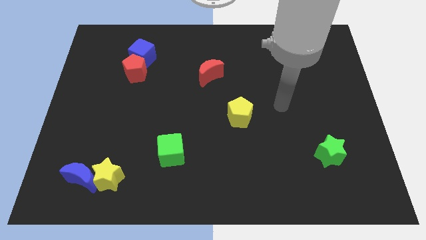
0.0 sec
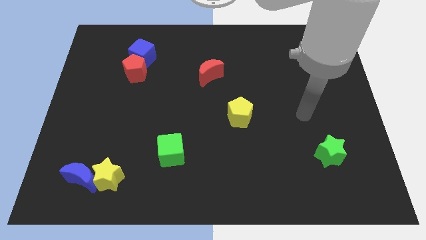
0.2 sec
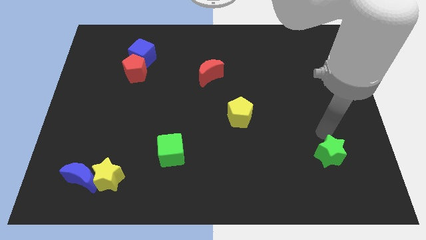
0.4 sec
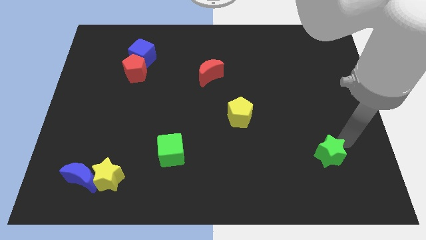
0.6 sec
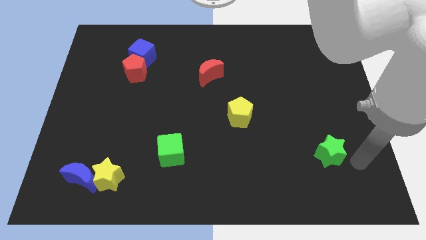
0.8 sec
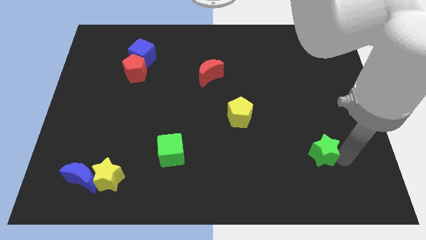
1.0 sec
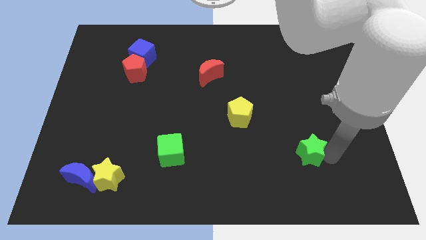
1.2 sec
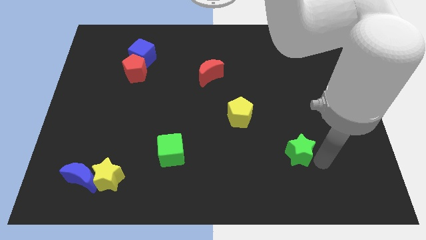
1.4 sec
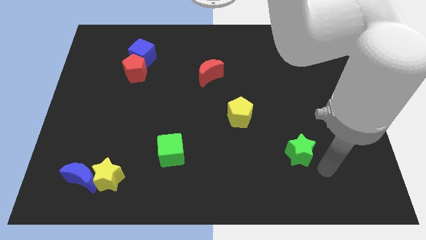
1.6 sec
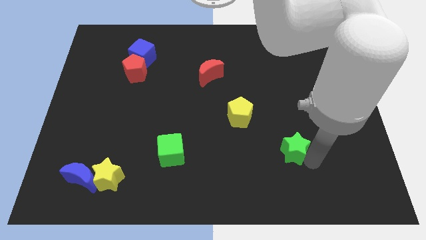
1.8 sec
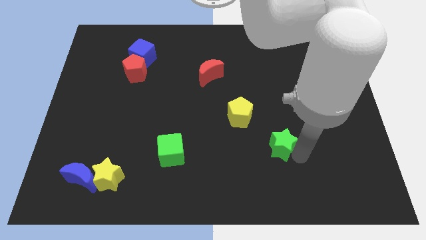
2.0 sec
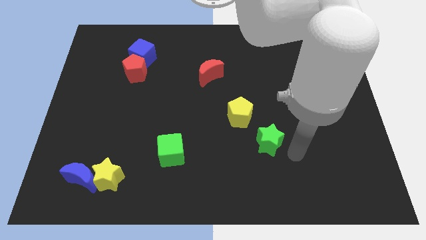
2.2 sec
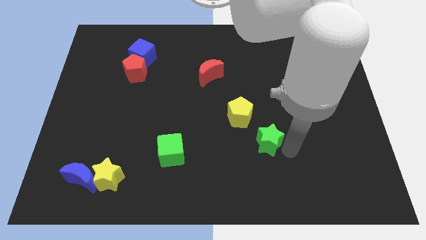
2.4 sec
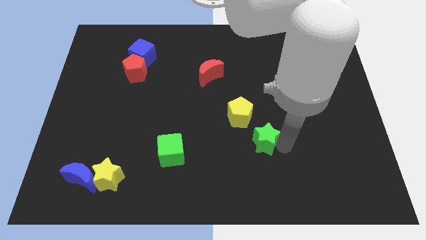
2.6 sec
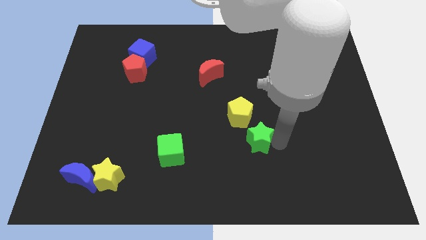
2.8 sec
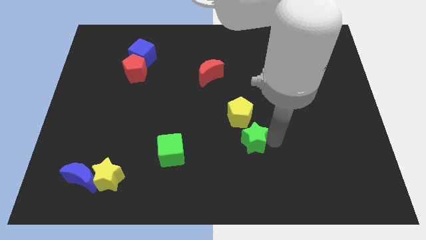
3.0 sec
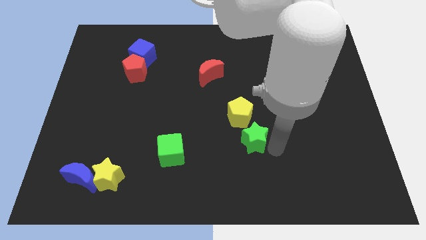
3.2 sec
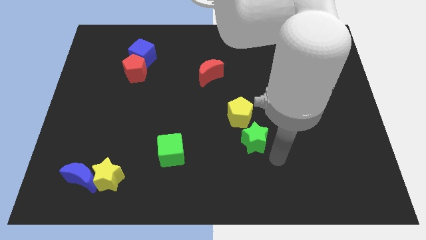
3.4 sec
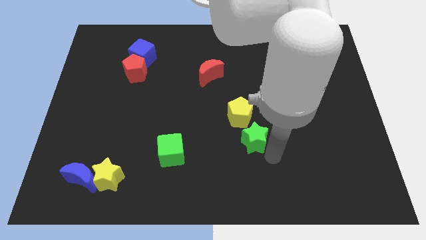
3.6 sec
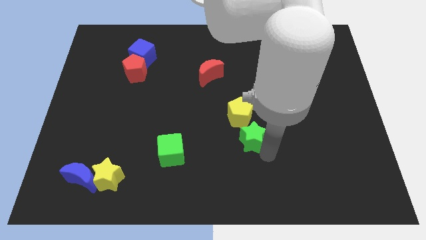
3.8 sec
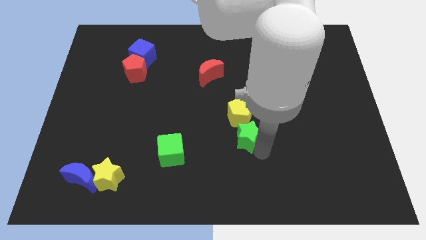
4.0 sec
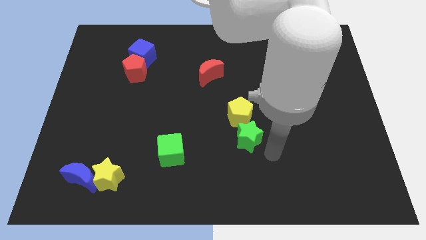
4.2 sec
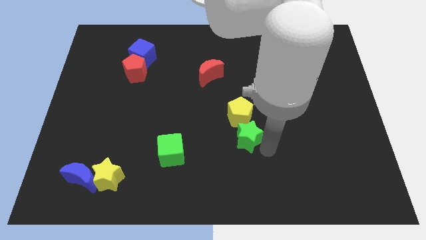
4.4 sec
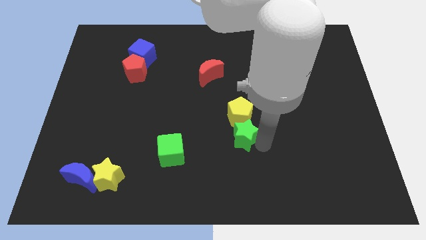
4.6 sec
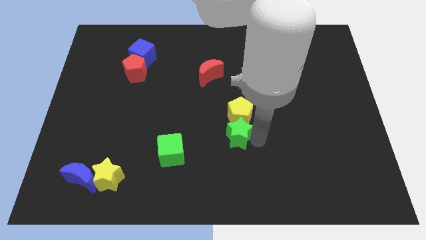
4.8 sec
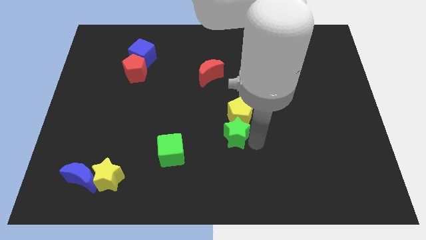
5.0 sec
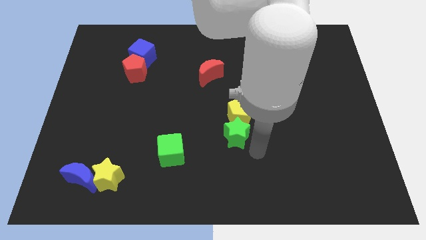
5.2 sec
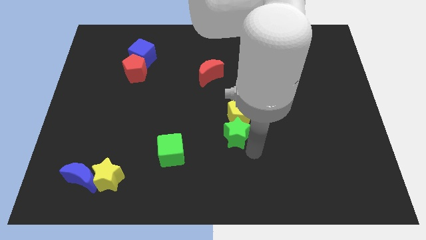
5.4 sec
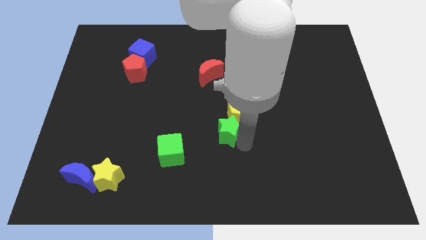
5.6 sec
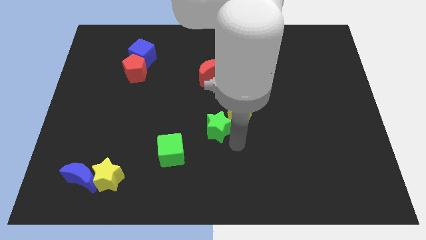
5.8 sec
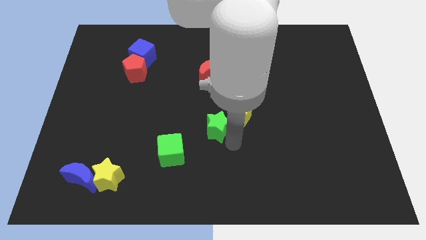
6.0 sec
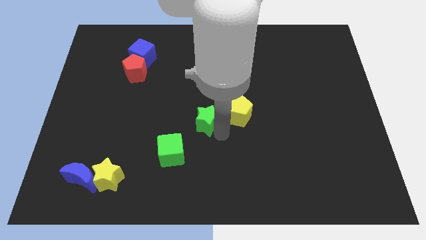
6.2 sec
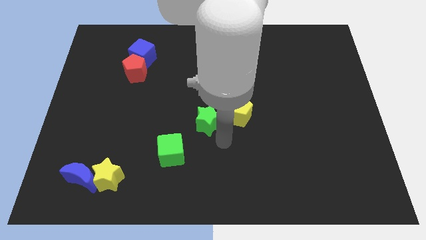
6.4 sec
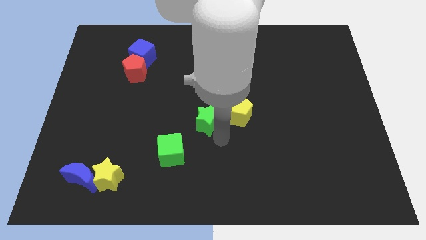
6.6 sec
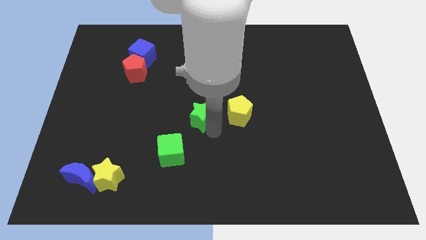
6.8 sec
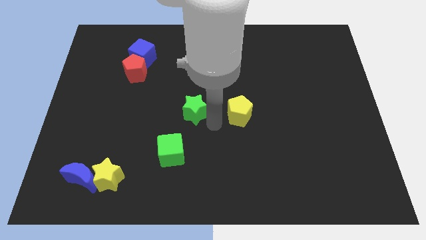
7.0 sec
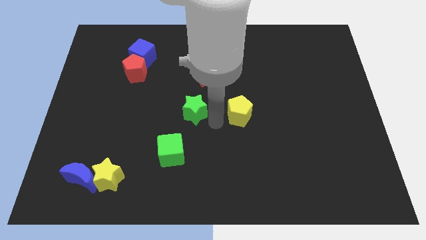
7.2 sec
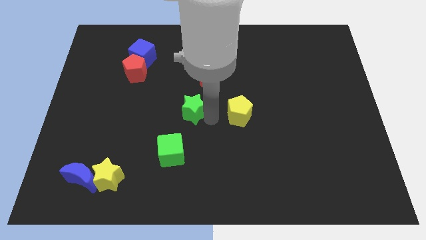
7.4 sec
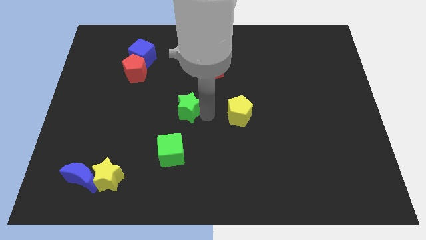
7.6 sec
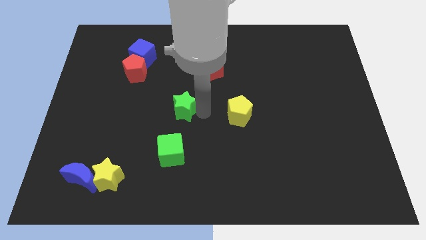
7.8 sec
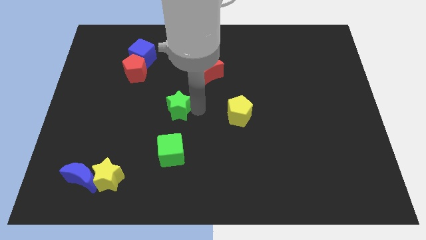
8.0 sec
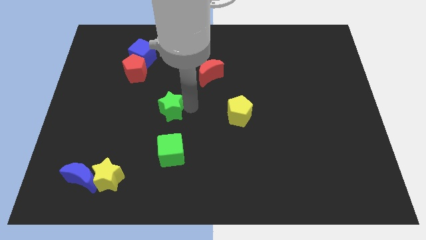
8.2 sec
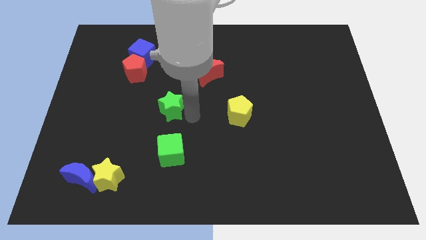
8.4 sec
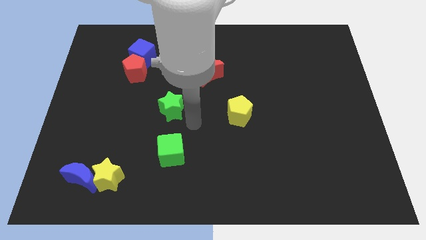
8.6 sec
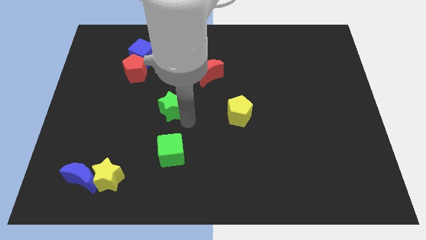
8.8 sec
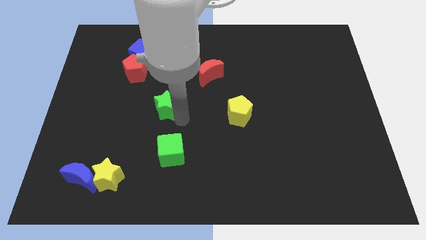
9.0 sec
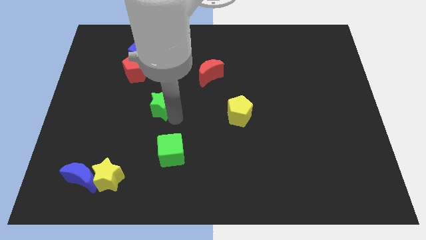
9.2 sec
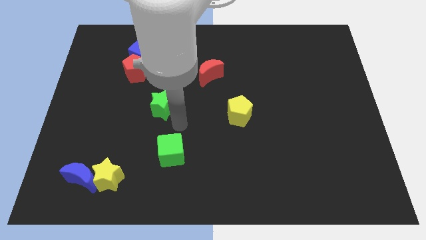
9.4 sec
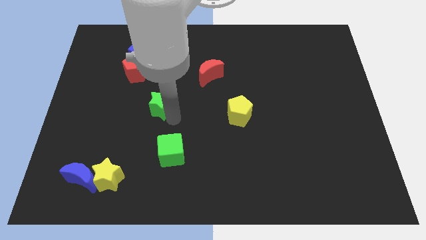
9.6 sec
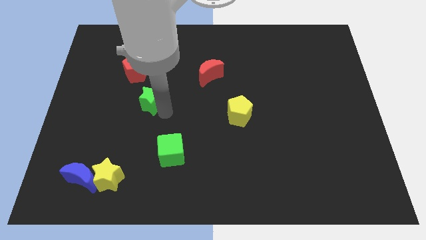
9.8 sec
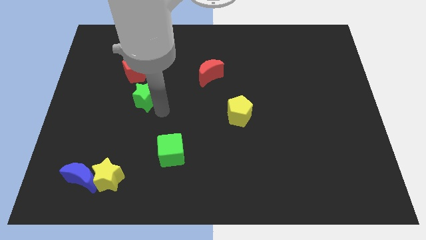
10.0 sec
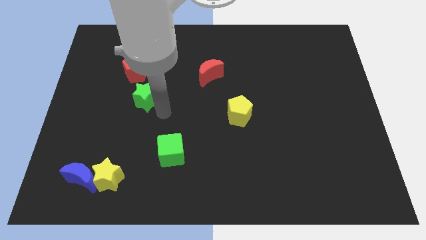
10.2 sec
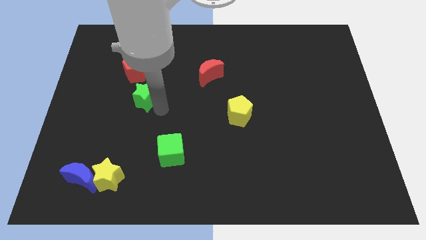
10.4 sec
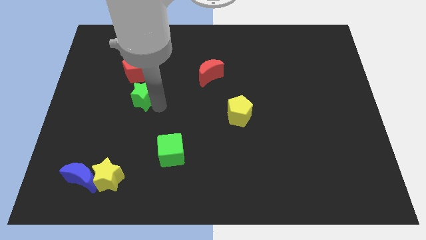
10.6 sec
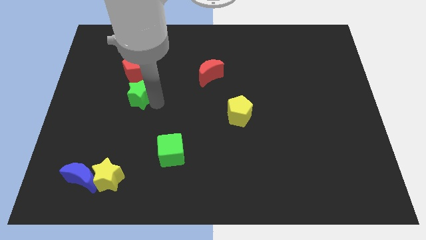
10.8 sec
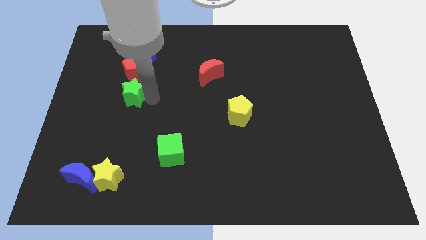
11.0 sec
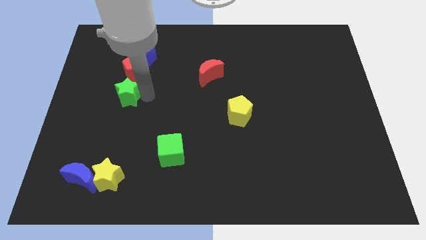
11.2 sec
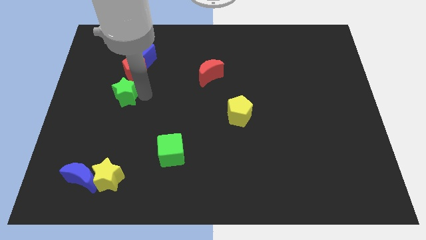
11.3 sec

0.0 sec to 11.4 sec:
move the green star to the bottom left of the red pentagon

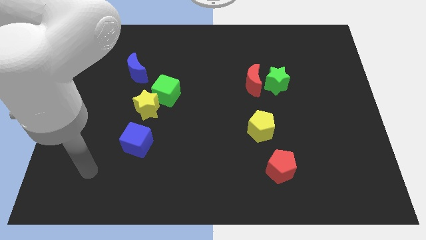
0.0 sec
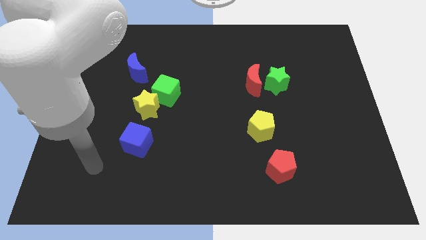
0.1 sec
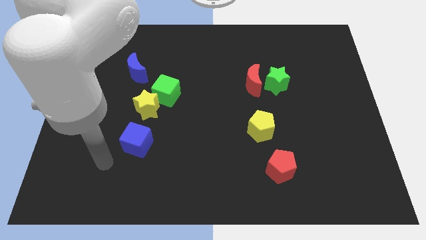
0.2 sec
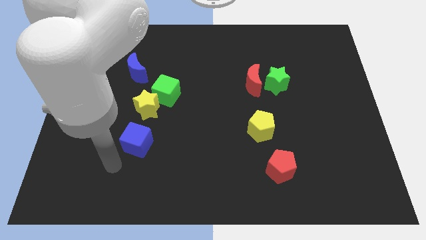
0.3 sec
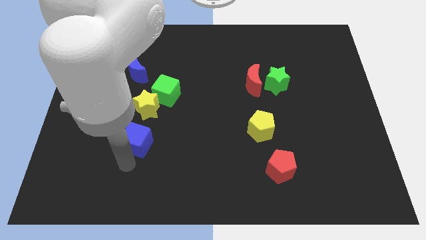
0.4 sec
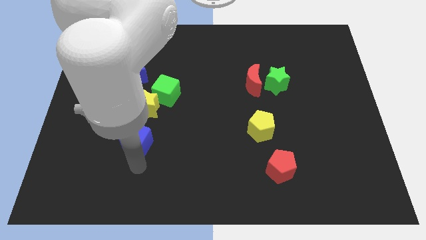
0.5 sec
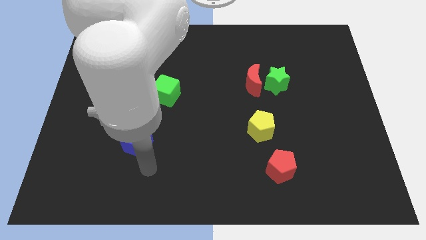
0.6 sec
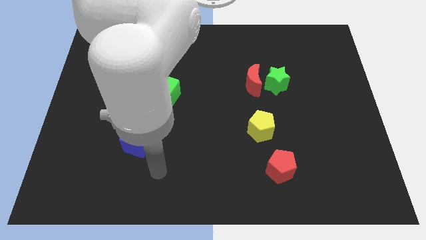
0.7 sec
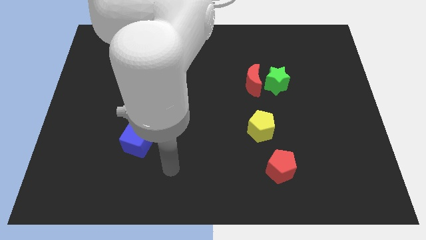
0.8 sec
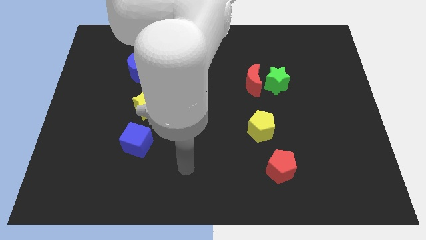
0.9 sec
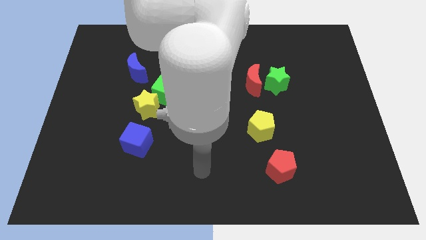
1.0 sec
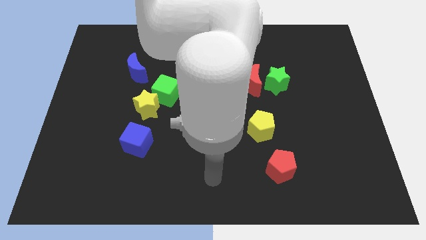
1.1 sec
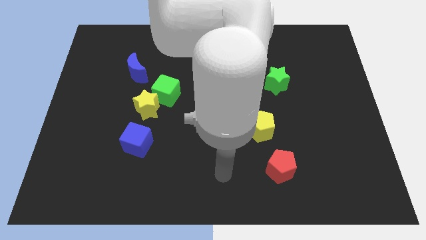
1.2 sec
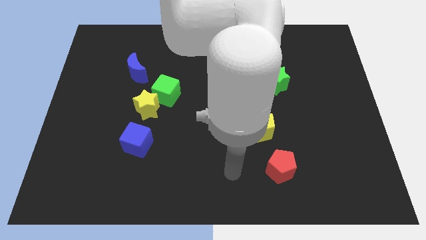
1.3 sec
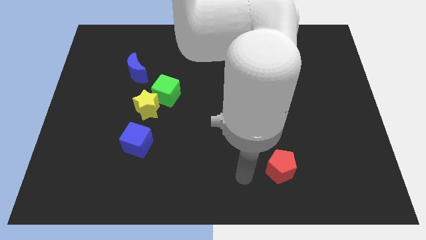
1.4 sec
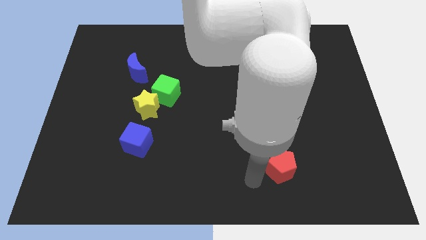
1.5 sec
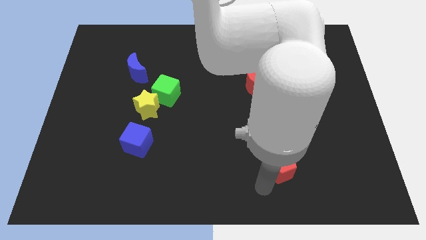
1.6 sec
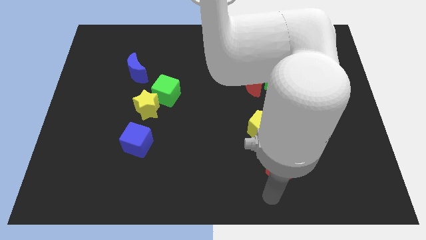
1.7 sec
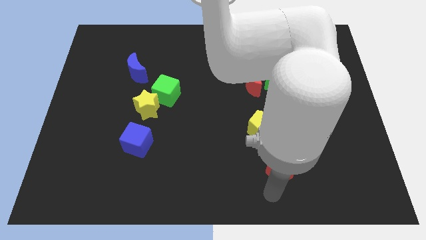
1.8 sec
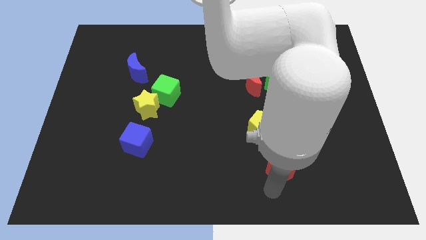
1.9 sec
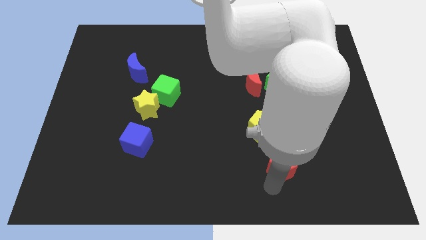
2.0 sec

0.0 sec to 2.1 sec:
push the red pentagon to the bottom right side of the yellow pentagon
